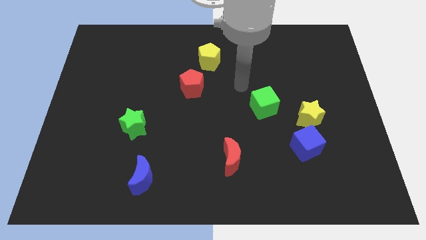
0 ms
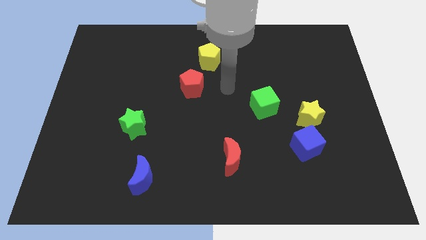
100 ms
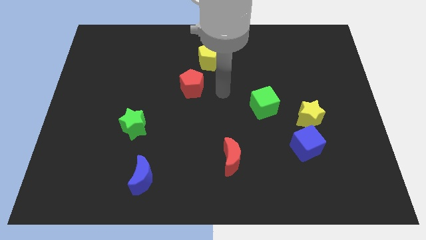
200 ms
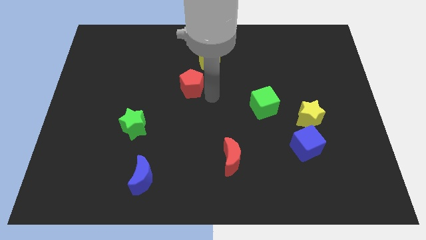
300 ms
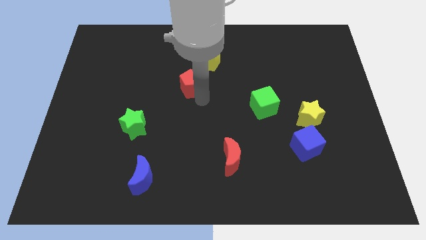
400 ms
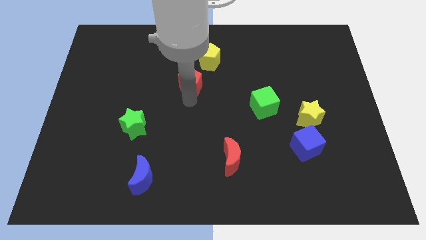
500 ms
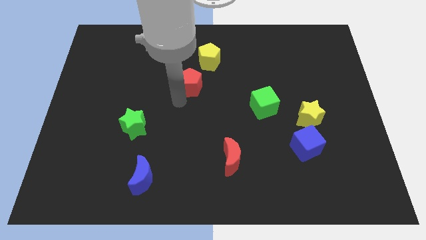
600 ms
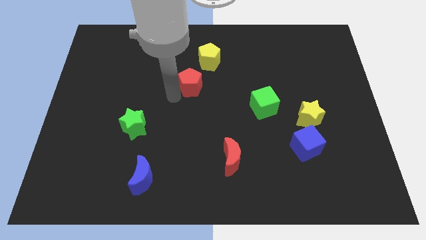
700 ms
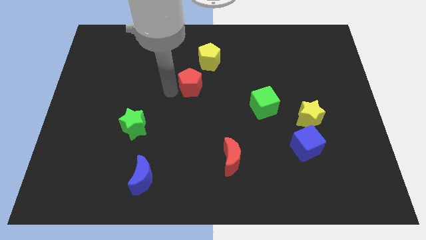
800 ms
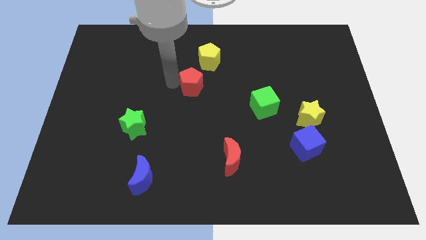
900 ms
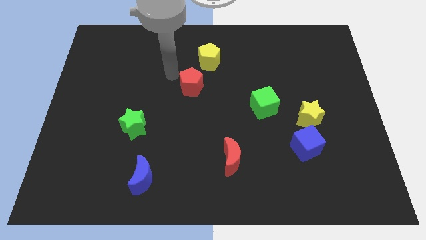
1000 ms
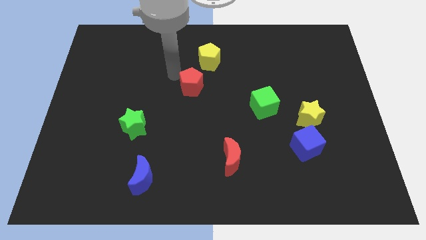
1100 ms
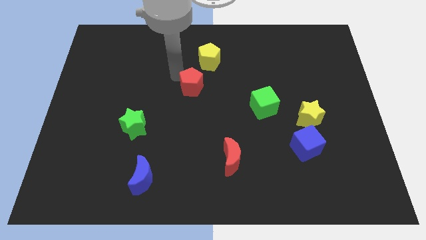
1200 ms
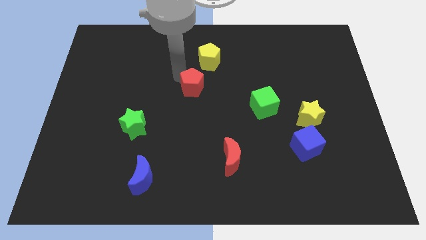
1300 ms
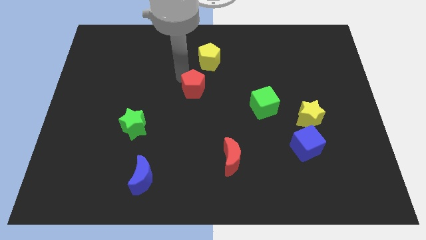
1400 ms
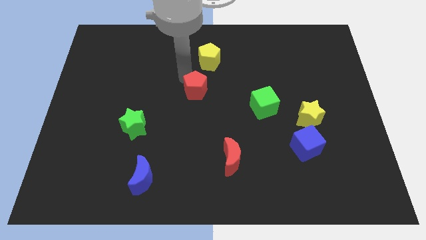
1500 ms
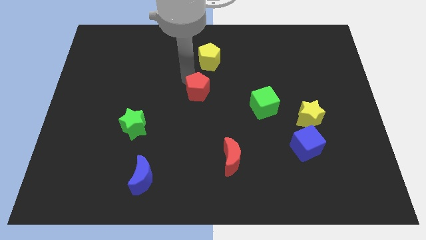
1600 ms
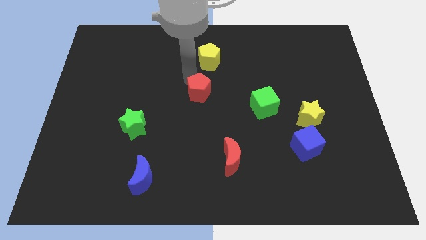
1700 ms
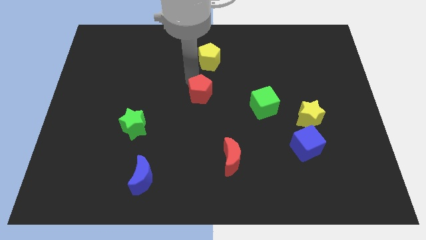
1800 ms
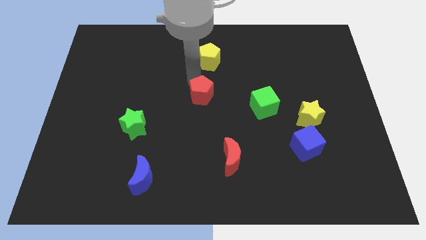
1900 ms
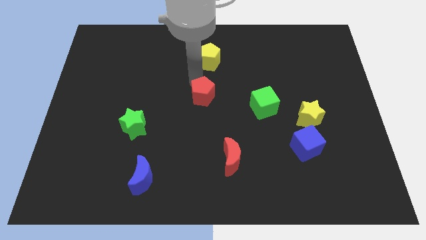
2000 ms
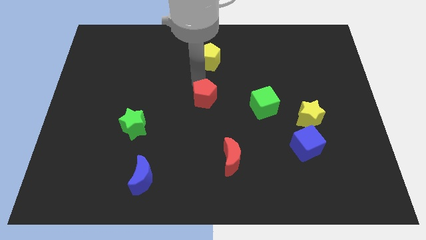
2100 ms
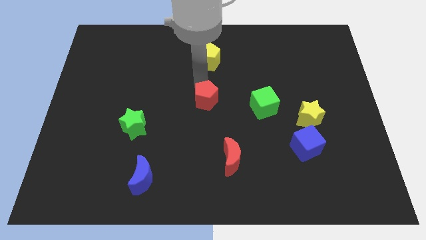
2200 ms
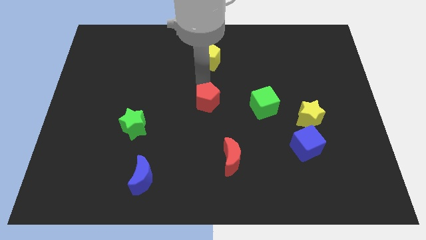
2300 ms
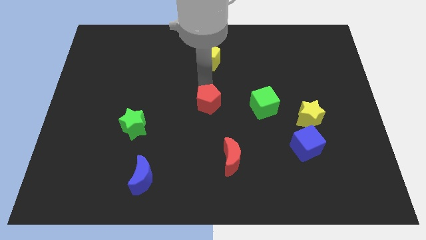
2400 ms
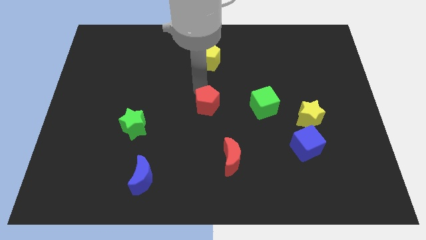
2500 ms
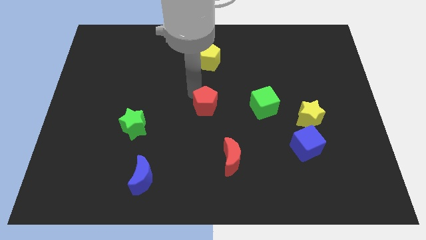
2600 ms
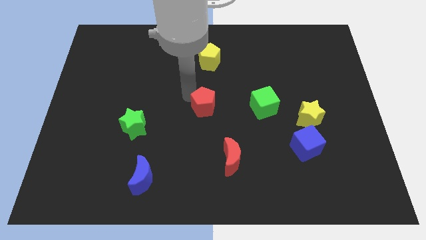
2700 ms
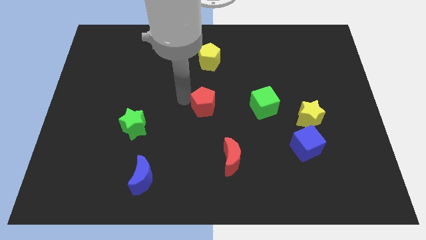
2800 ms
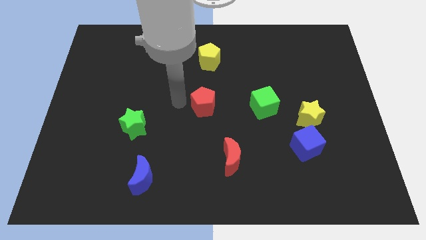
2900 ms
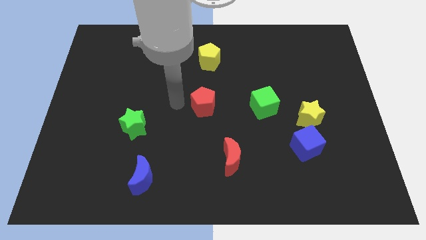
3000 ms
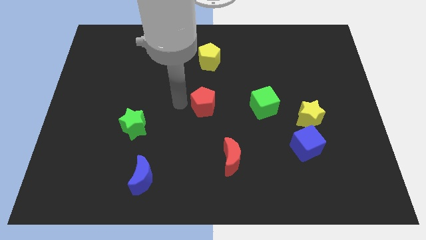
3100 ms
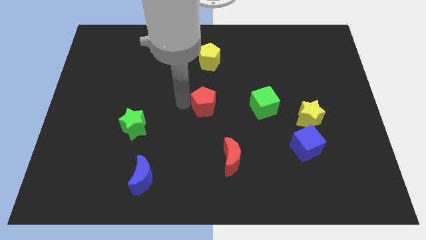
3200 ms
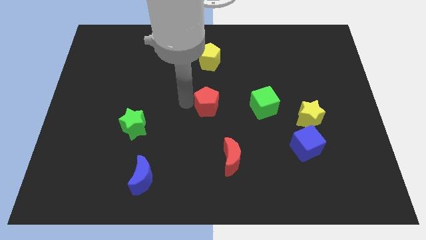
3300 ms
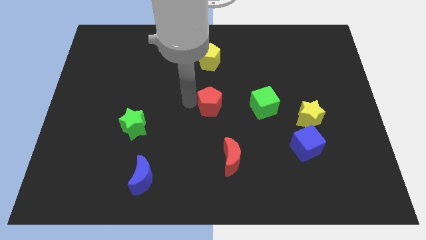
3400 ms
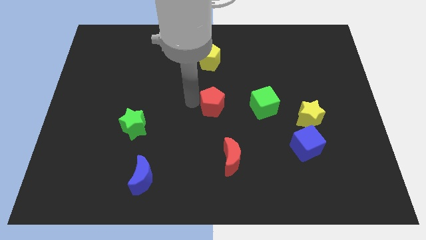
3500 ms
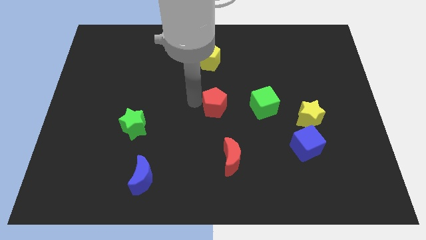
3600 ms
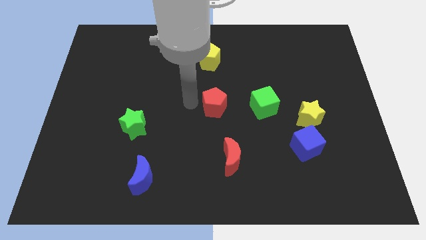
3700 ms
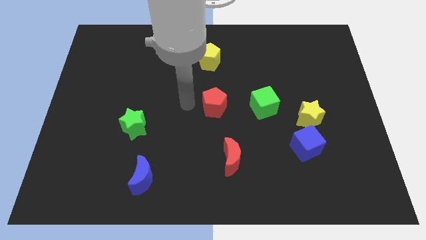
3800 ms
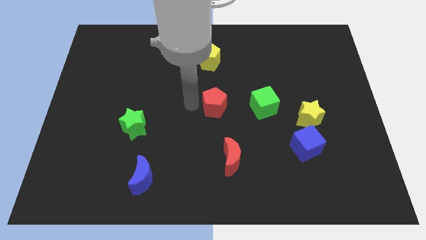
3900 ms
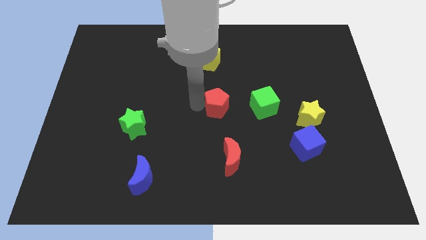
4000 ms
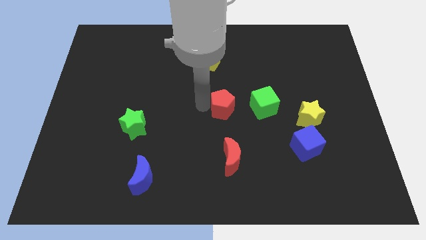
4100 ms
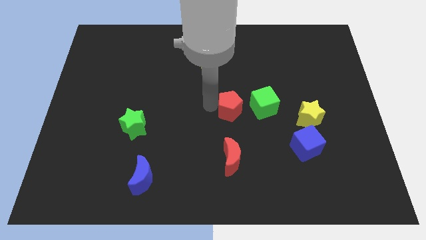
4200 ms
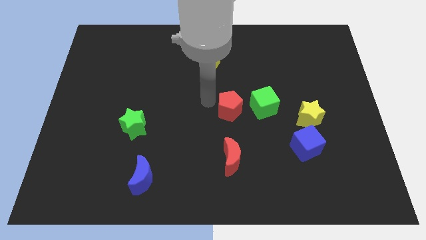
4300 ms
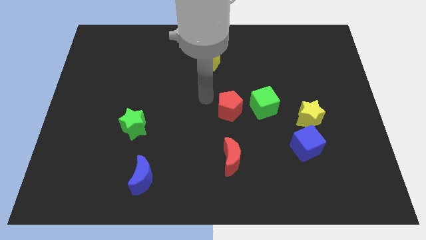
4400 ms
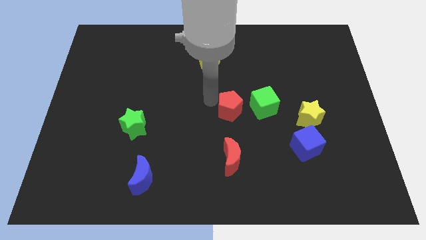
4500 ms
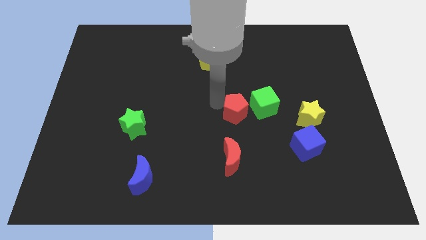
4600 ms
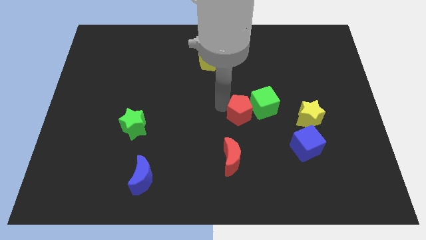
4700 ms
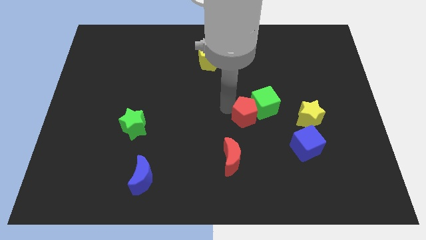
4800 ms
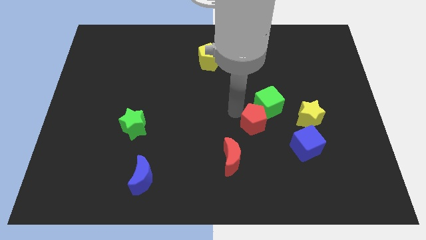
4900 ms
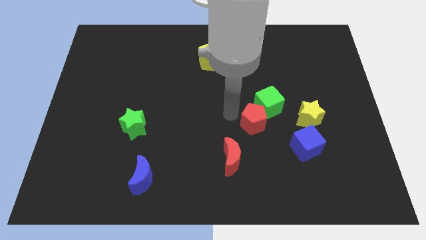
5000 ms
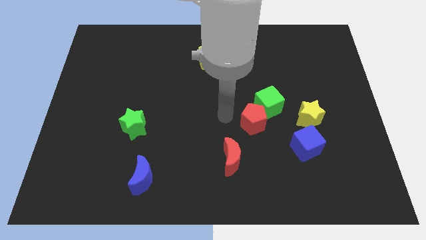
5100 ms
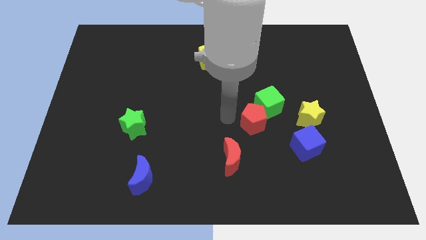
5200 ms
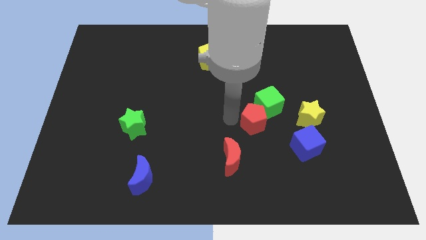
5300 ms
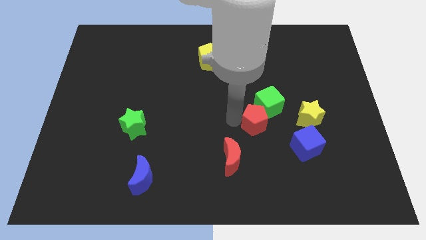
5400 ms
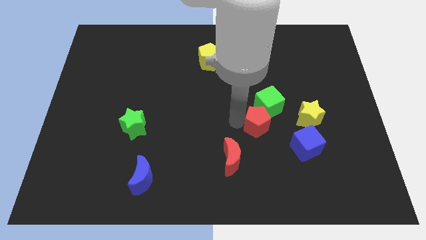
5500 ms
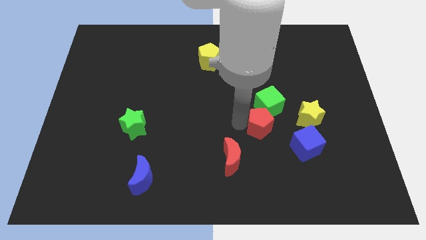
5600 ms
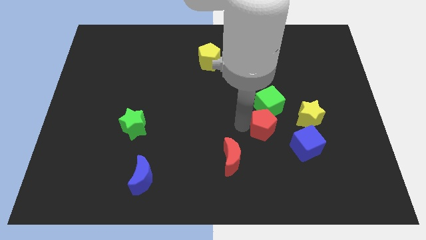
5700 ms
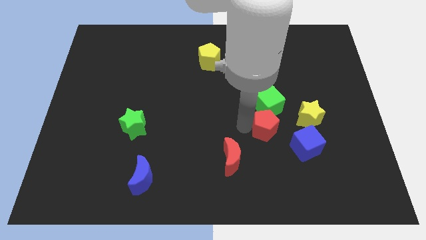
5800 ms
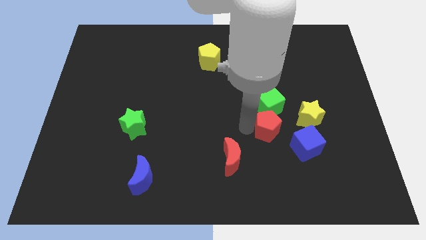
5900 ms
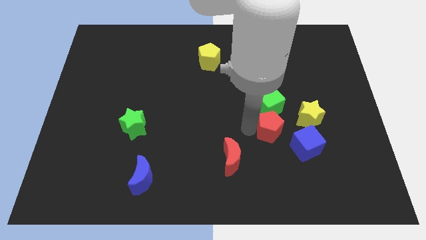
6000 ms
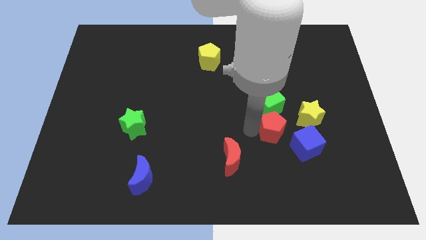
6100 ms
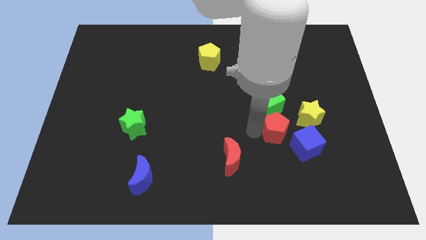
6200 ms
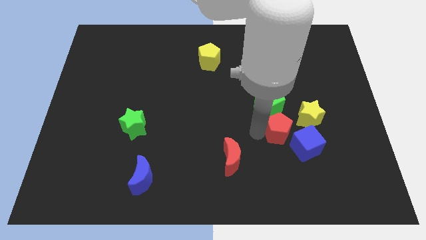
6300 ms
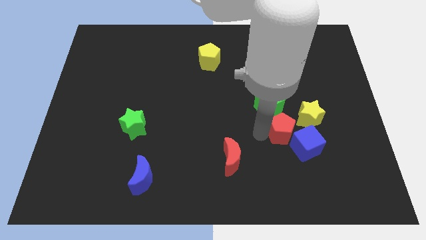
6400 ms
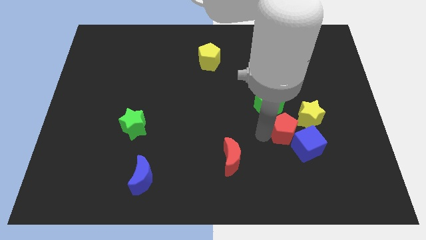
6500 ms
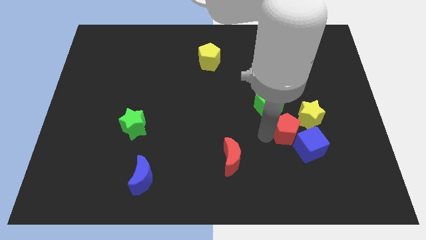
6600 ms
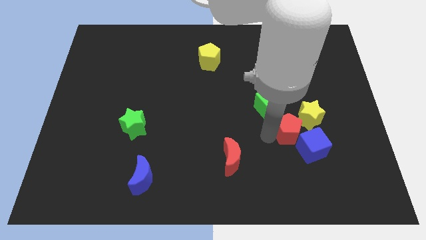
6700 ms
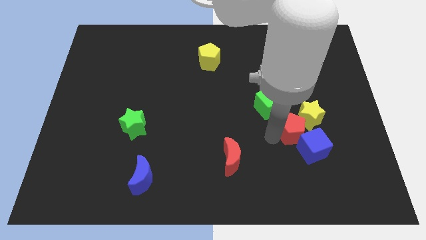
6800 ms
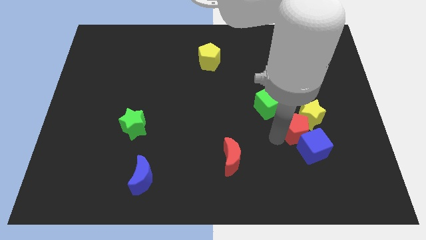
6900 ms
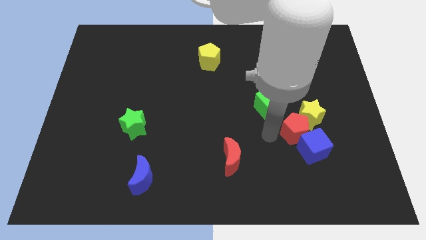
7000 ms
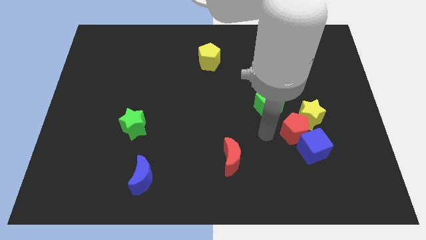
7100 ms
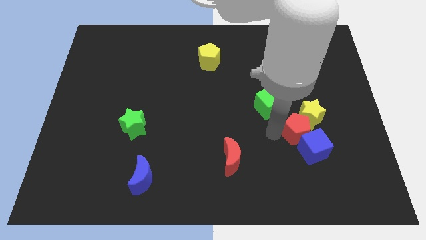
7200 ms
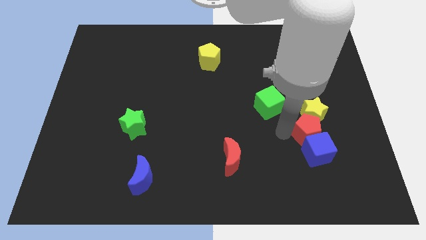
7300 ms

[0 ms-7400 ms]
put the red pentagon to the top right of the blue cube

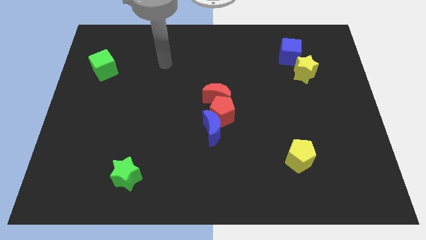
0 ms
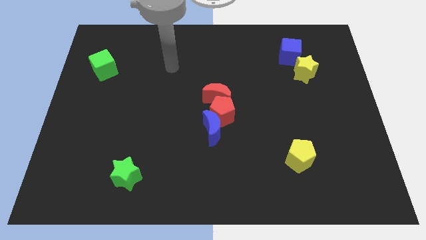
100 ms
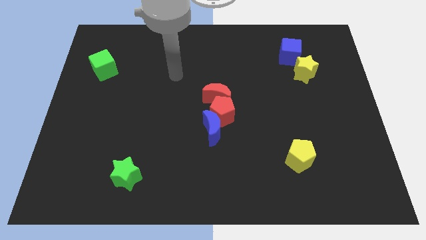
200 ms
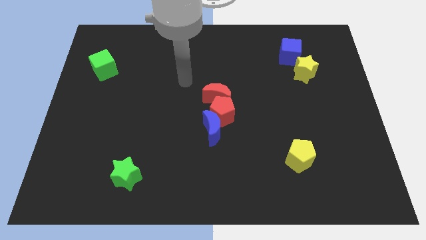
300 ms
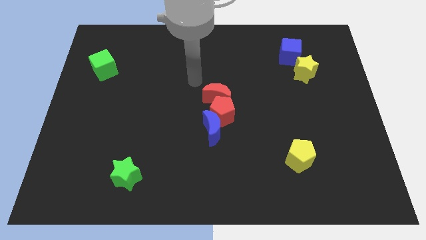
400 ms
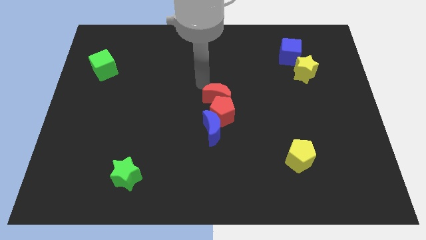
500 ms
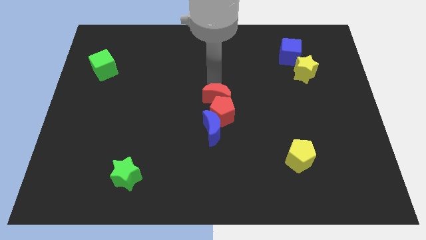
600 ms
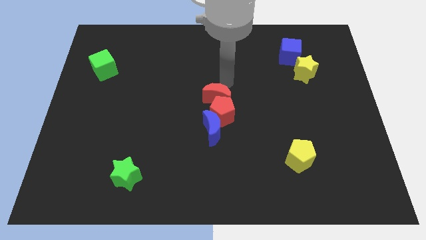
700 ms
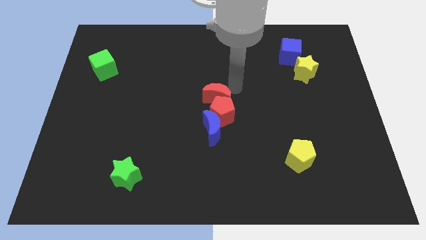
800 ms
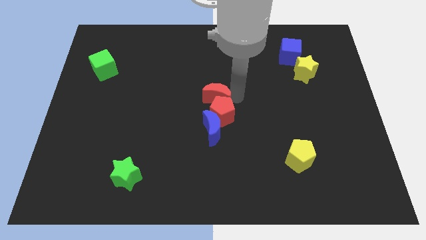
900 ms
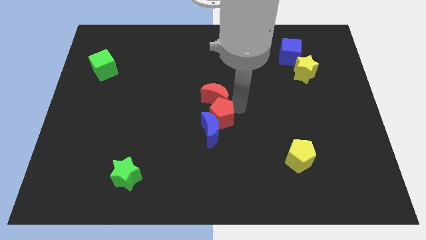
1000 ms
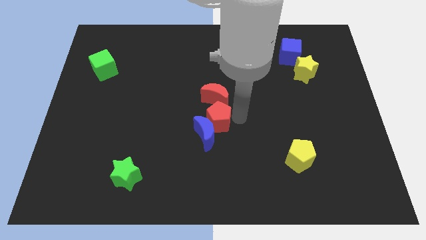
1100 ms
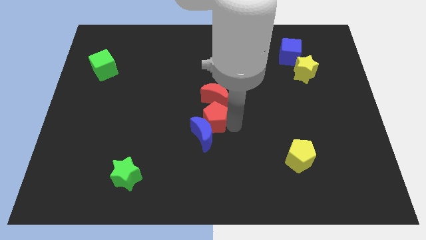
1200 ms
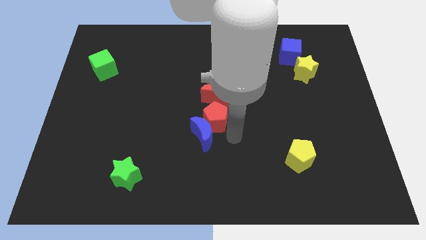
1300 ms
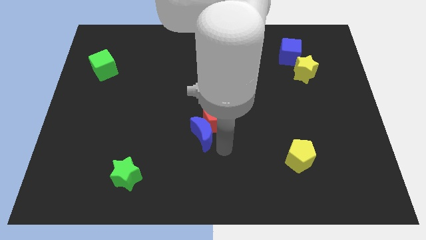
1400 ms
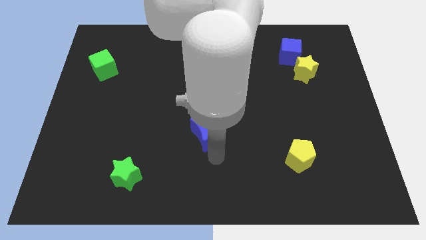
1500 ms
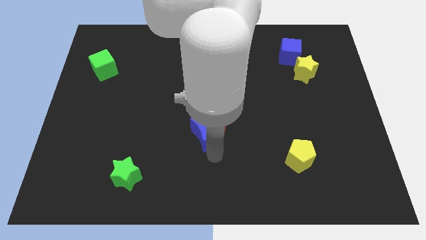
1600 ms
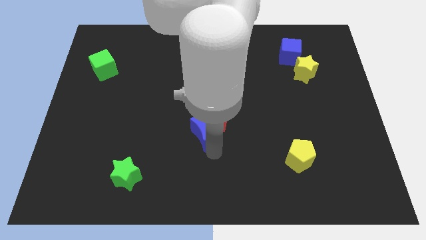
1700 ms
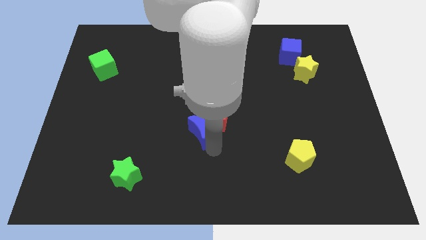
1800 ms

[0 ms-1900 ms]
push the blue moon diagonally down and to the left of the red moon
